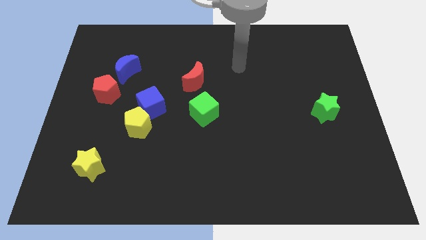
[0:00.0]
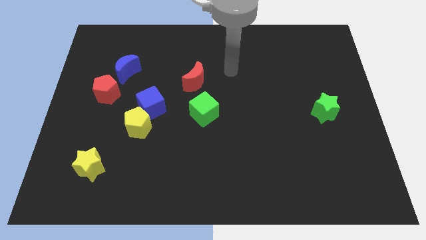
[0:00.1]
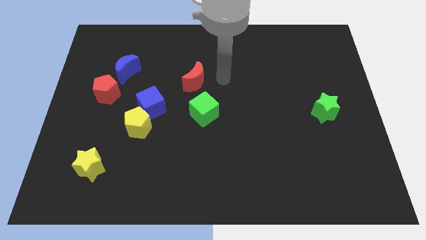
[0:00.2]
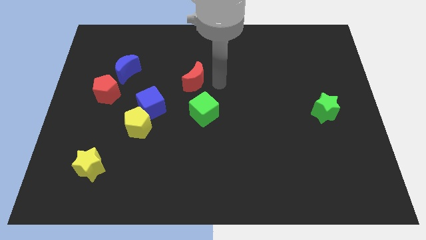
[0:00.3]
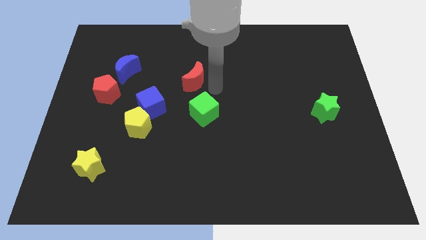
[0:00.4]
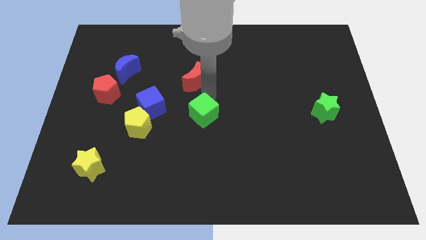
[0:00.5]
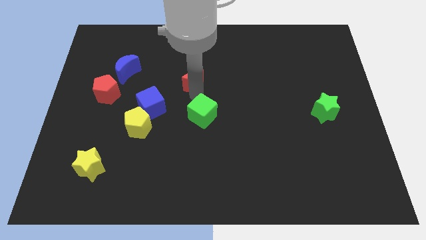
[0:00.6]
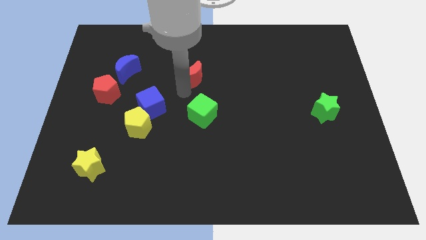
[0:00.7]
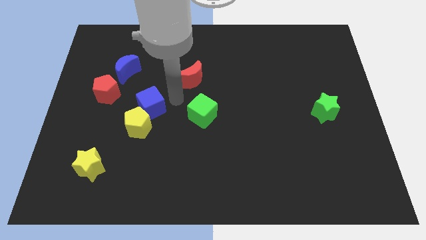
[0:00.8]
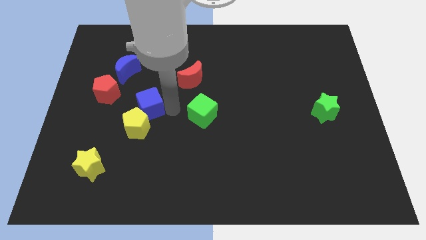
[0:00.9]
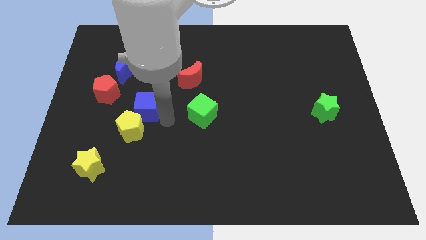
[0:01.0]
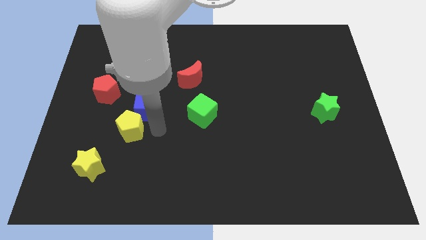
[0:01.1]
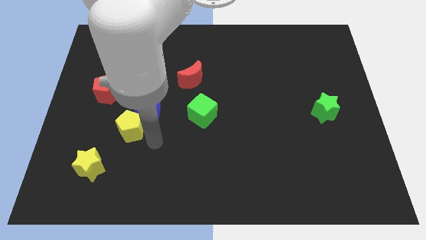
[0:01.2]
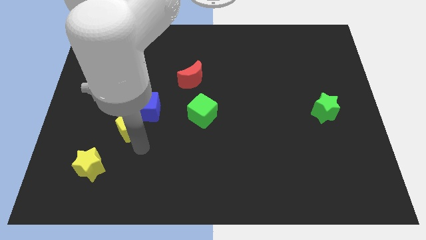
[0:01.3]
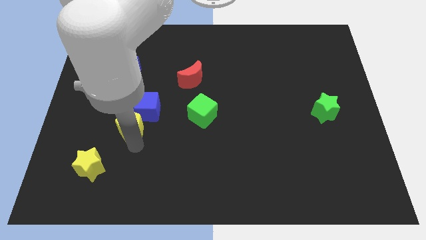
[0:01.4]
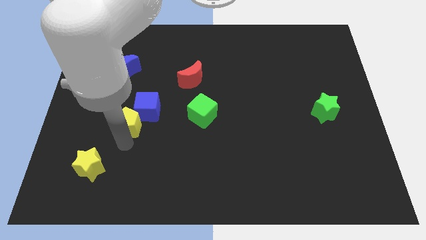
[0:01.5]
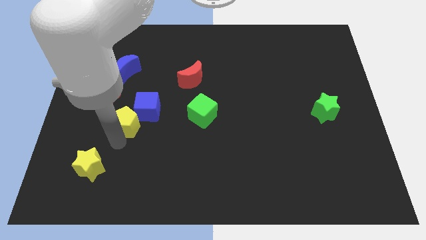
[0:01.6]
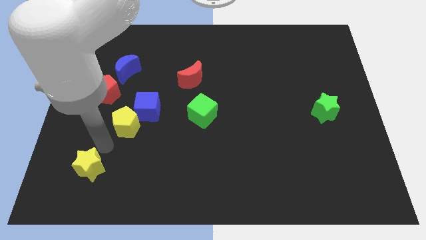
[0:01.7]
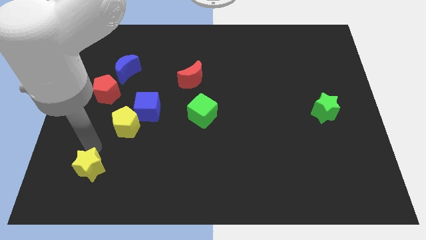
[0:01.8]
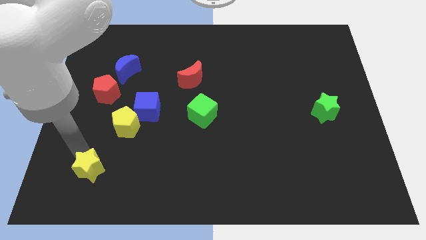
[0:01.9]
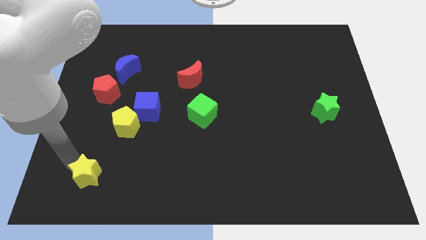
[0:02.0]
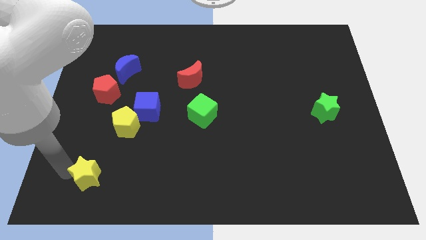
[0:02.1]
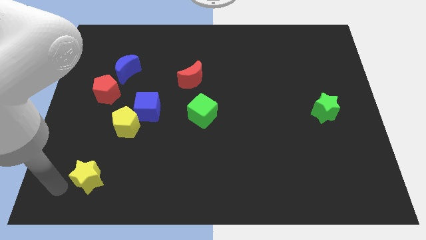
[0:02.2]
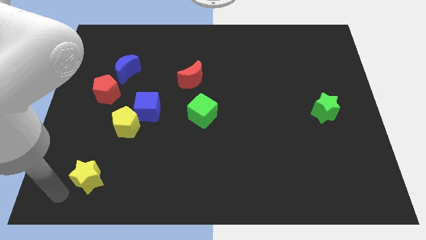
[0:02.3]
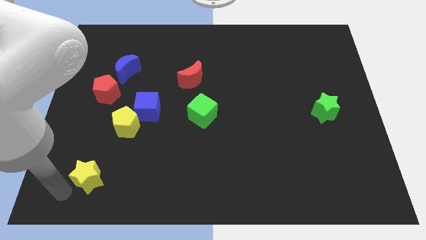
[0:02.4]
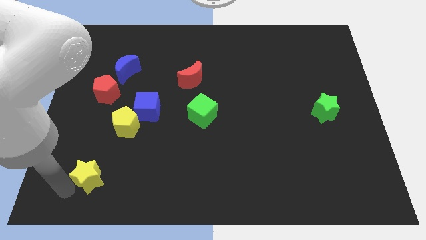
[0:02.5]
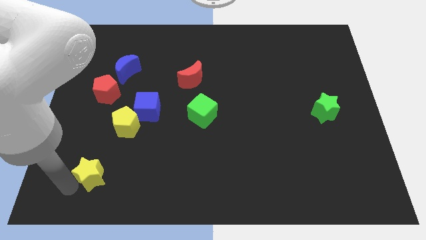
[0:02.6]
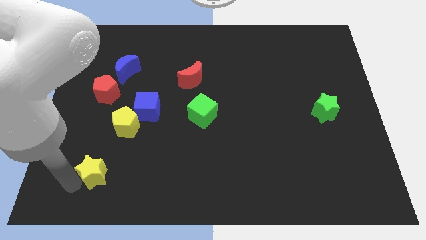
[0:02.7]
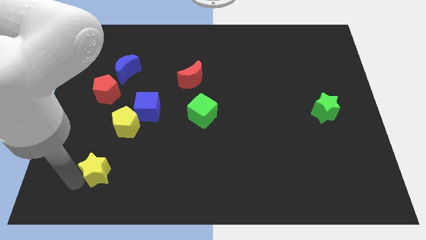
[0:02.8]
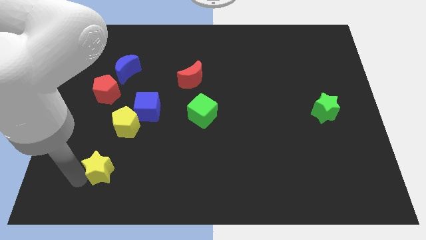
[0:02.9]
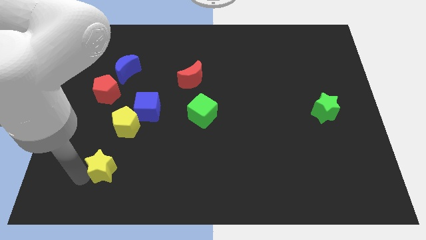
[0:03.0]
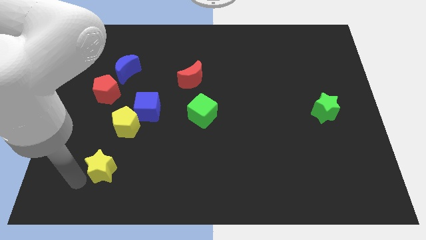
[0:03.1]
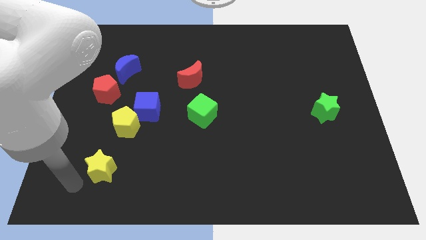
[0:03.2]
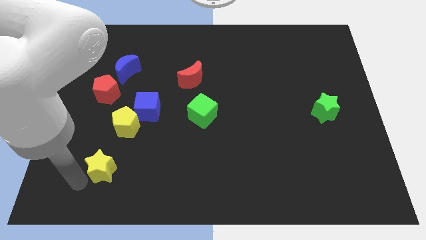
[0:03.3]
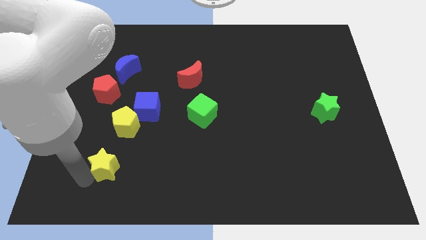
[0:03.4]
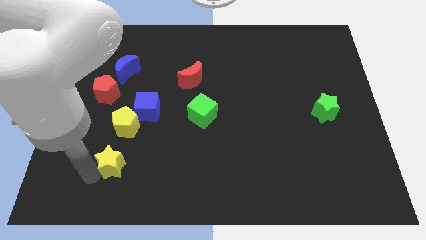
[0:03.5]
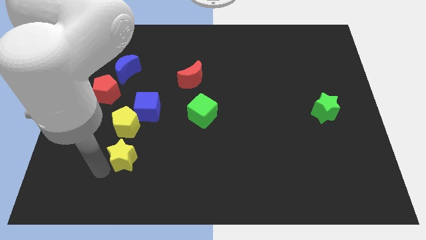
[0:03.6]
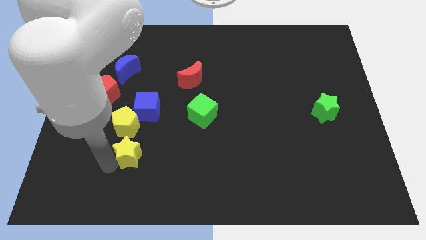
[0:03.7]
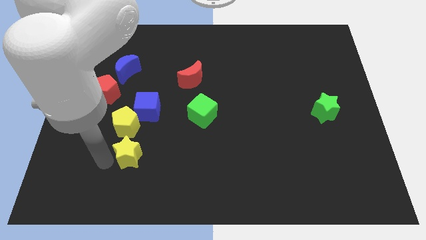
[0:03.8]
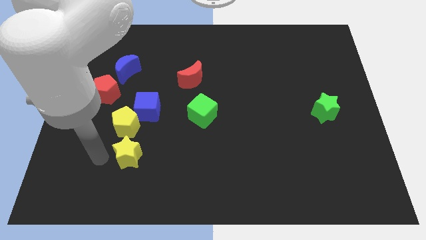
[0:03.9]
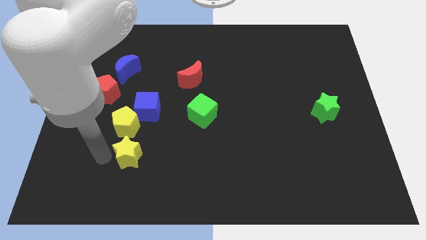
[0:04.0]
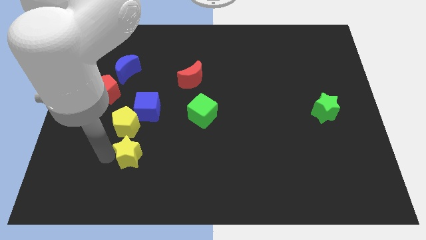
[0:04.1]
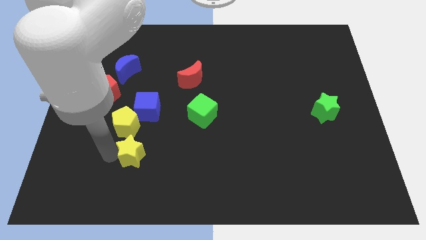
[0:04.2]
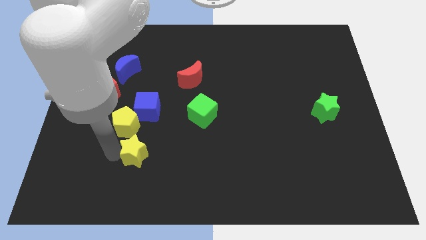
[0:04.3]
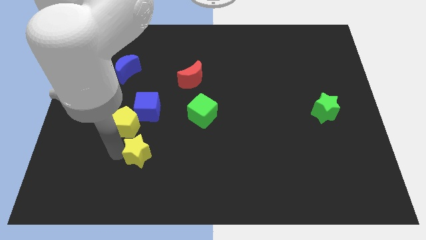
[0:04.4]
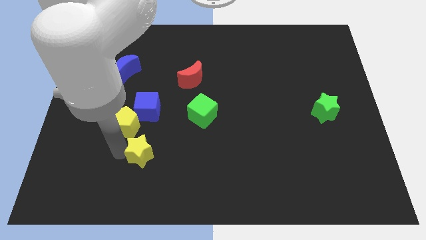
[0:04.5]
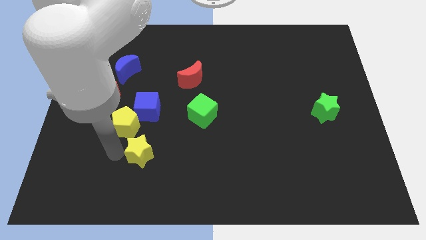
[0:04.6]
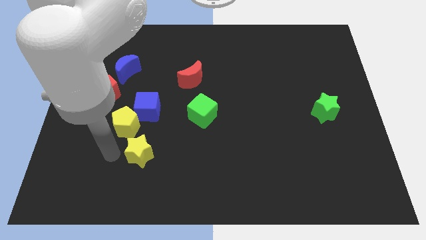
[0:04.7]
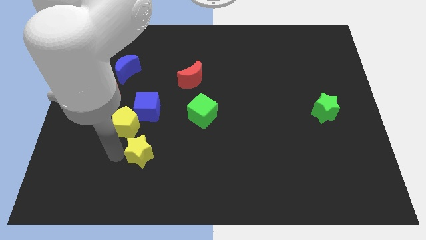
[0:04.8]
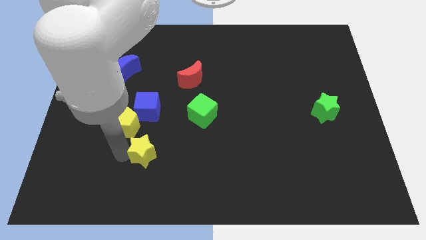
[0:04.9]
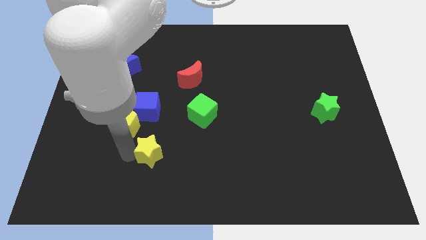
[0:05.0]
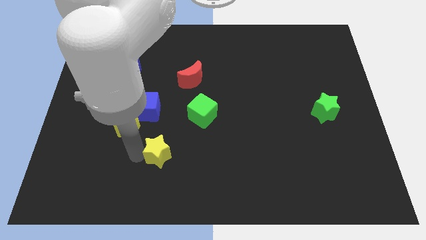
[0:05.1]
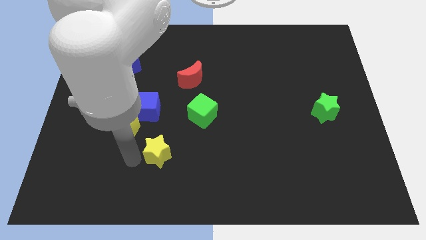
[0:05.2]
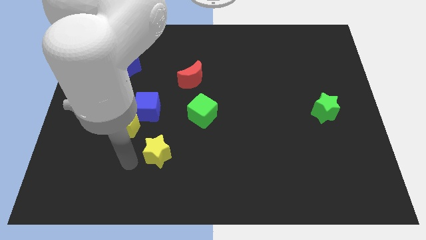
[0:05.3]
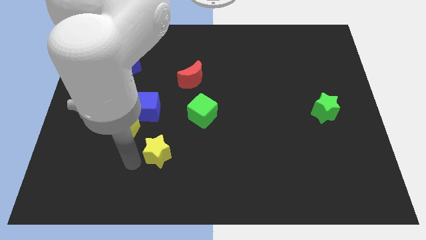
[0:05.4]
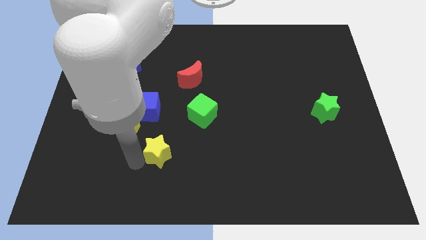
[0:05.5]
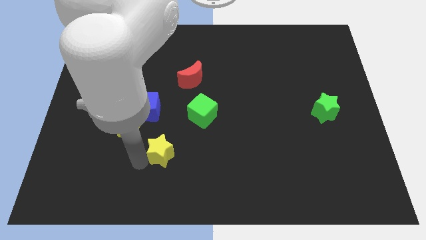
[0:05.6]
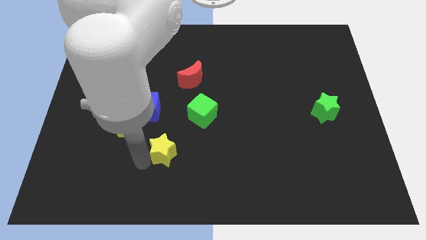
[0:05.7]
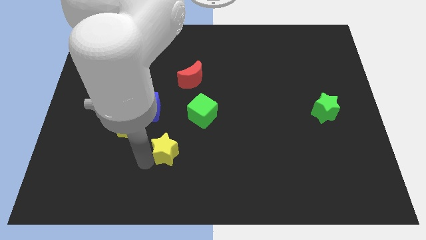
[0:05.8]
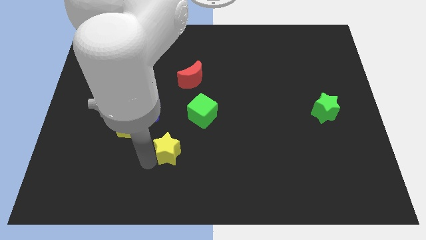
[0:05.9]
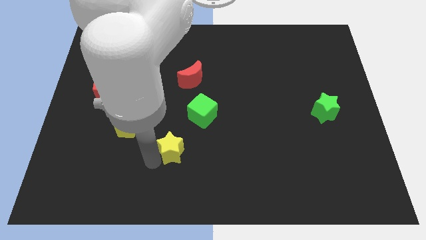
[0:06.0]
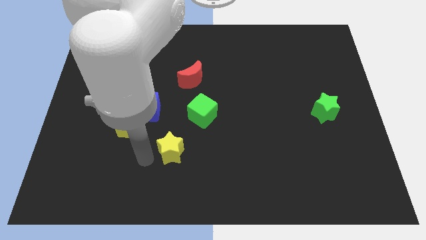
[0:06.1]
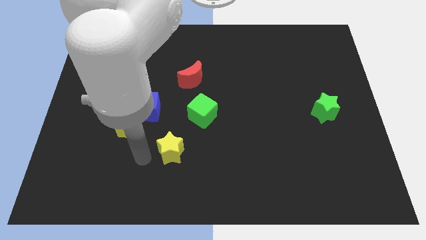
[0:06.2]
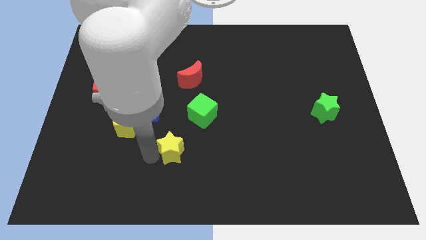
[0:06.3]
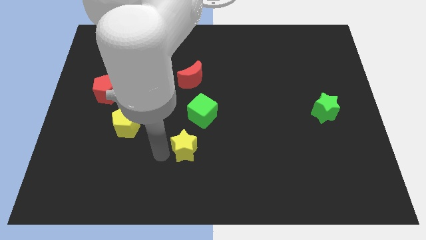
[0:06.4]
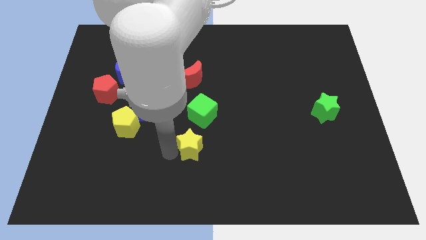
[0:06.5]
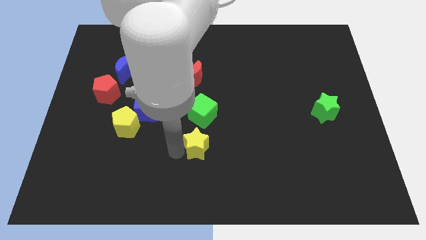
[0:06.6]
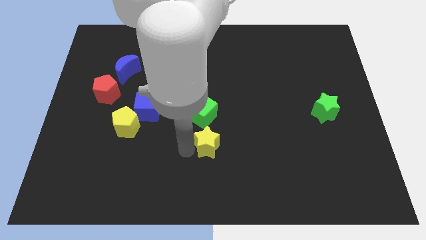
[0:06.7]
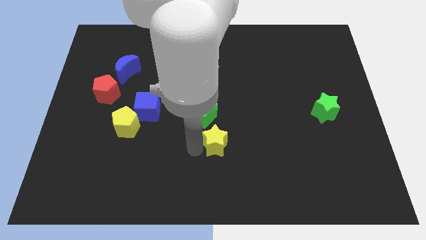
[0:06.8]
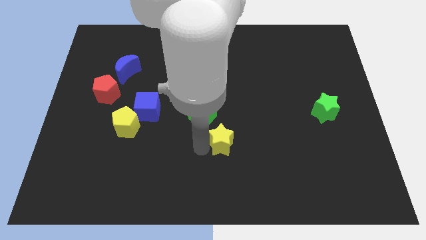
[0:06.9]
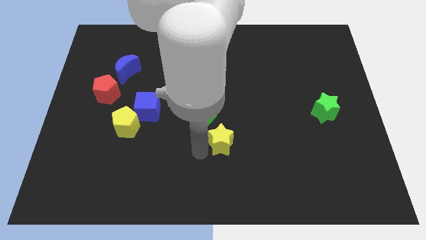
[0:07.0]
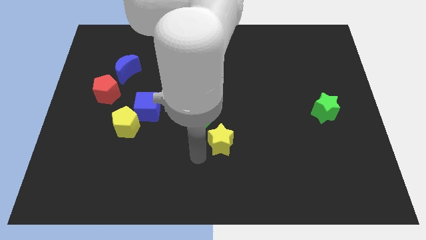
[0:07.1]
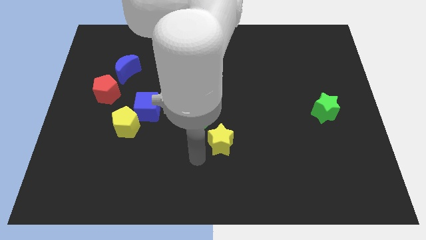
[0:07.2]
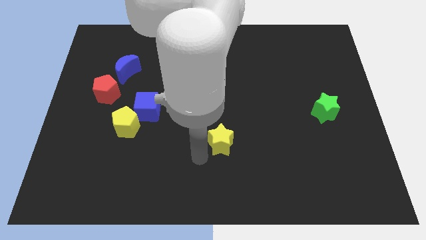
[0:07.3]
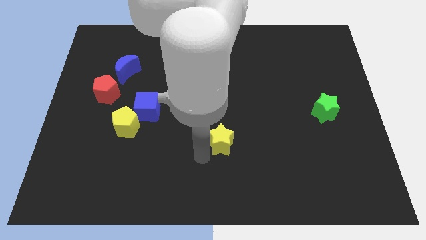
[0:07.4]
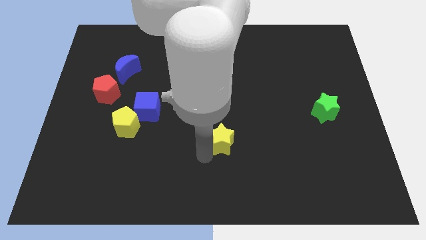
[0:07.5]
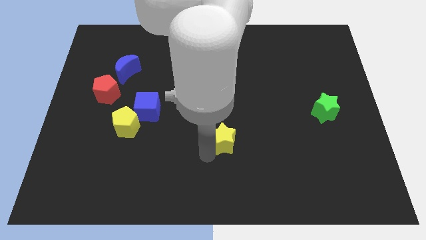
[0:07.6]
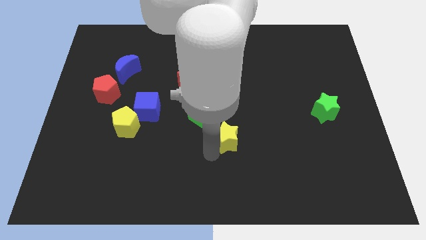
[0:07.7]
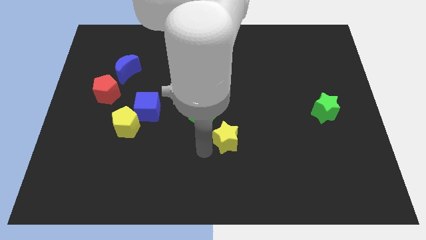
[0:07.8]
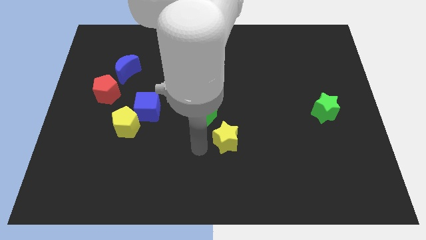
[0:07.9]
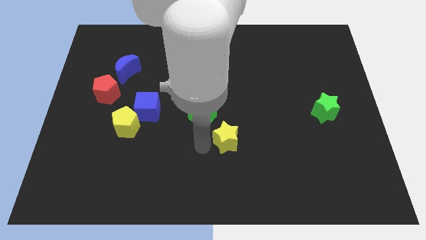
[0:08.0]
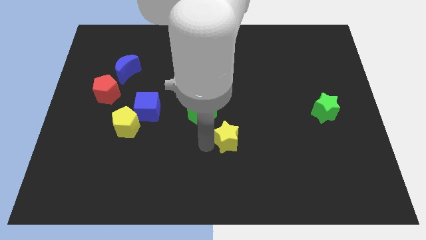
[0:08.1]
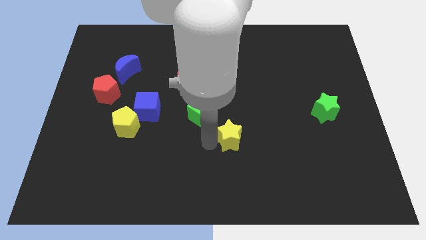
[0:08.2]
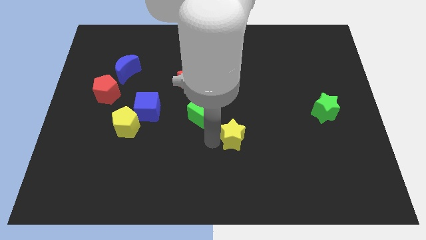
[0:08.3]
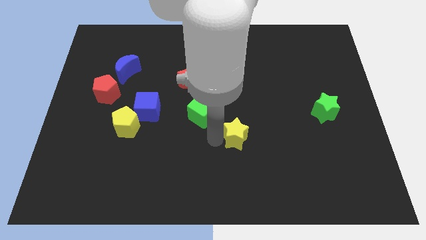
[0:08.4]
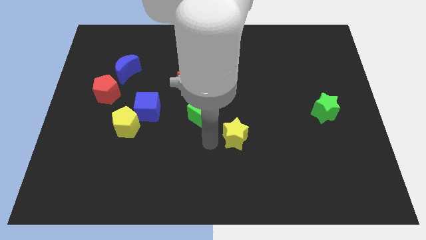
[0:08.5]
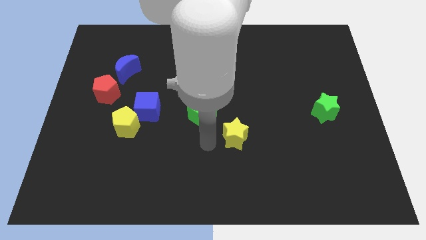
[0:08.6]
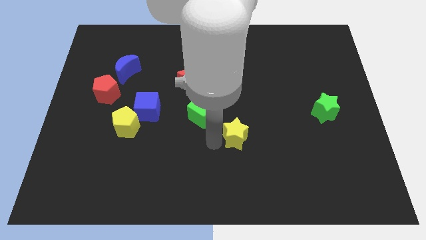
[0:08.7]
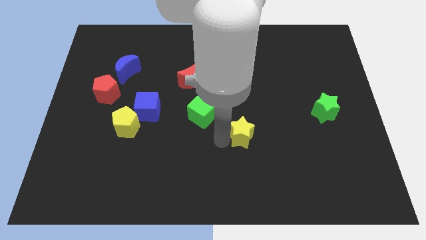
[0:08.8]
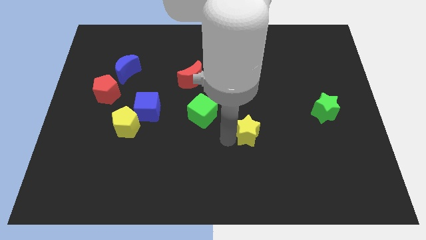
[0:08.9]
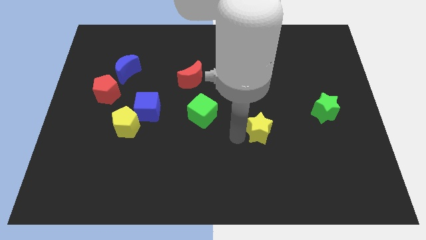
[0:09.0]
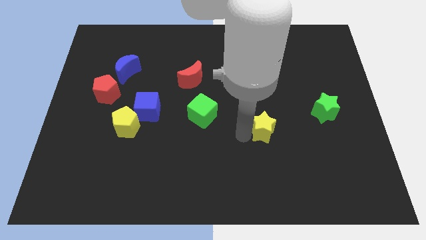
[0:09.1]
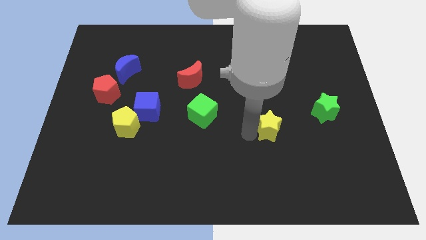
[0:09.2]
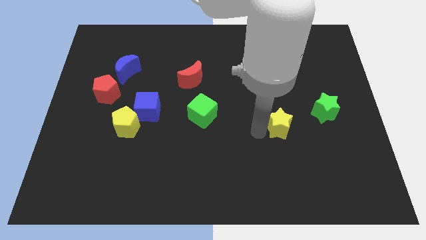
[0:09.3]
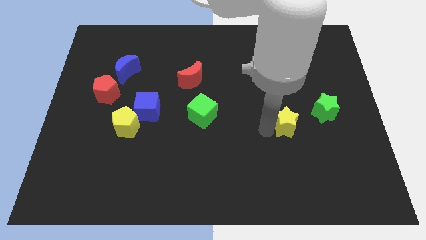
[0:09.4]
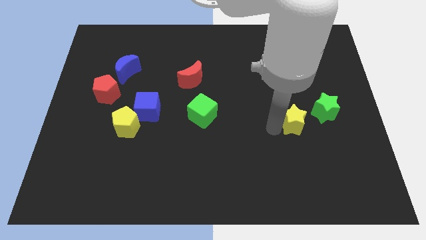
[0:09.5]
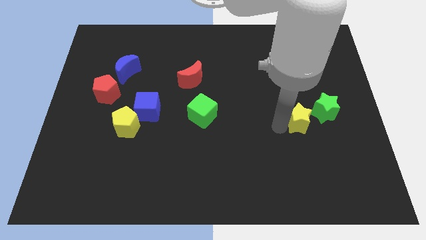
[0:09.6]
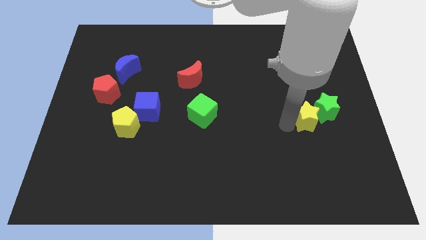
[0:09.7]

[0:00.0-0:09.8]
move the yellow star towards the green star
